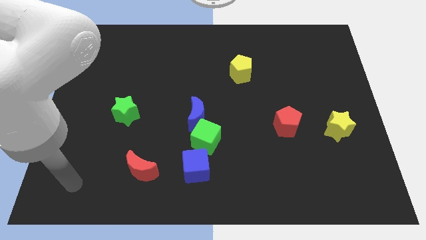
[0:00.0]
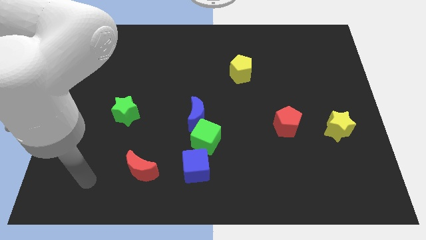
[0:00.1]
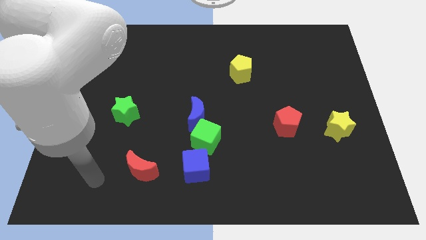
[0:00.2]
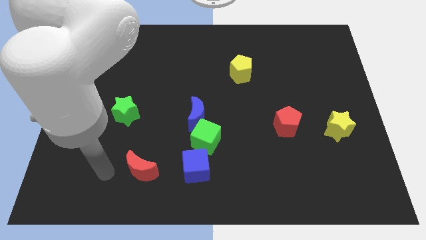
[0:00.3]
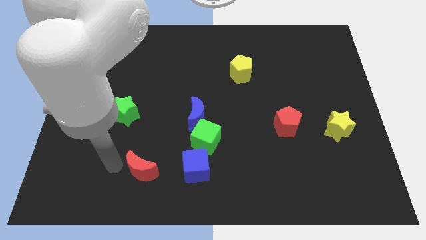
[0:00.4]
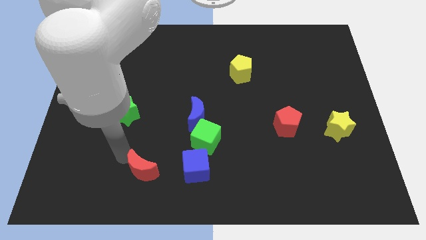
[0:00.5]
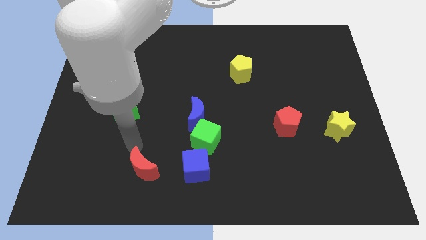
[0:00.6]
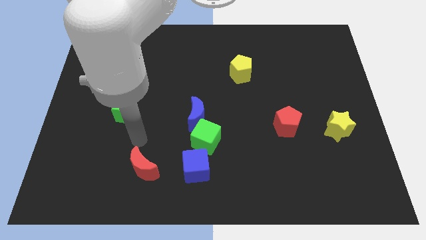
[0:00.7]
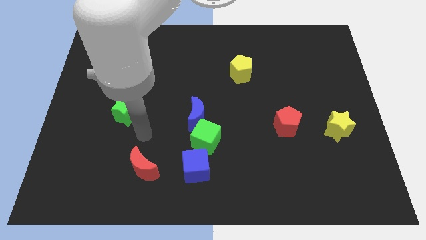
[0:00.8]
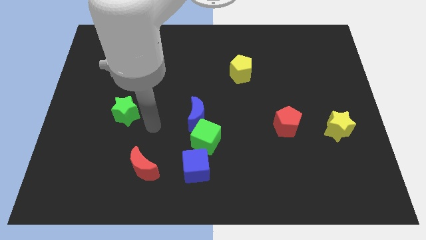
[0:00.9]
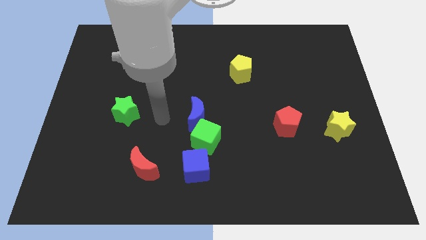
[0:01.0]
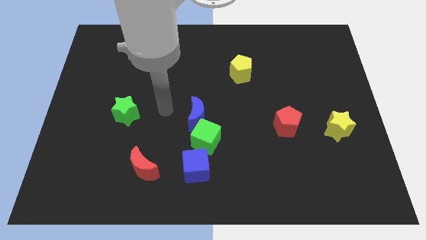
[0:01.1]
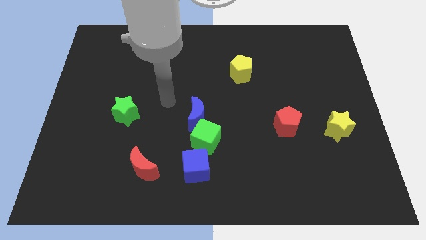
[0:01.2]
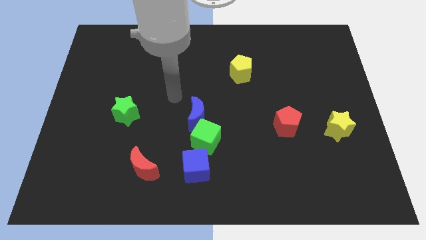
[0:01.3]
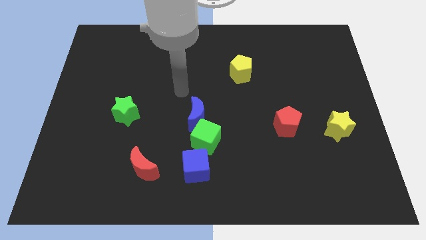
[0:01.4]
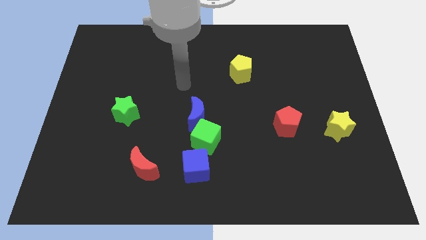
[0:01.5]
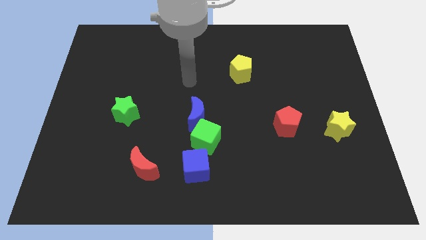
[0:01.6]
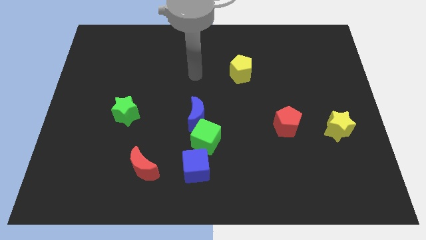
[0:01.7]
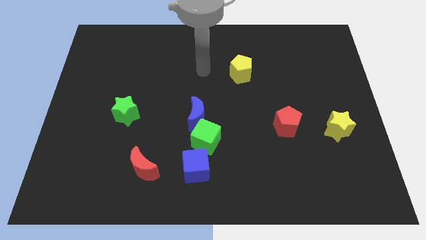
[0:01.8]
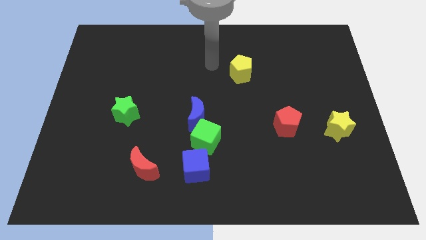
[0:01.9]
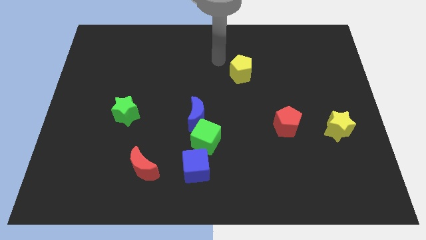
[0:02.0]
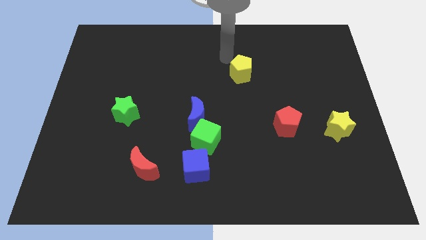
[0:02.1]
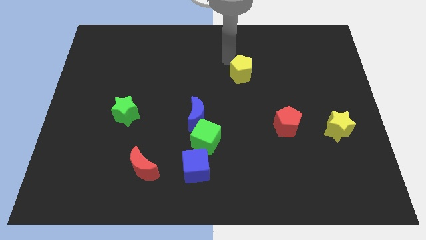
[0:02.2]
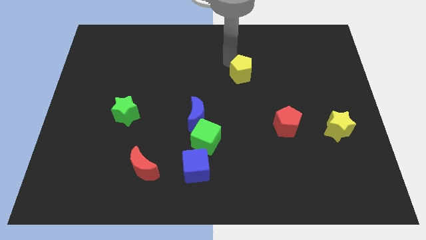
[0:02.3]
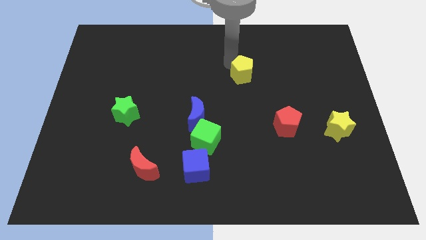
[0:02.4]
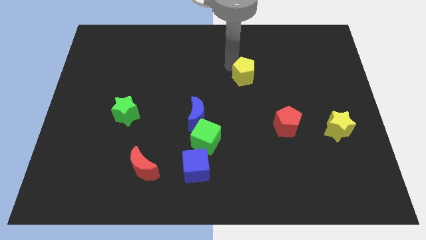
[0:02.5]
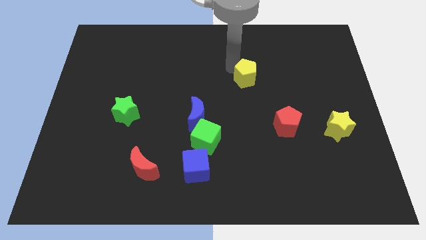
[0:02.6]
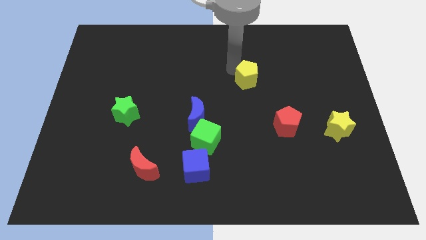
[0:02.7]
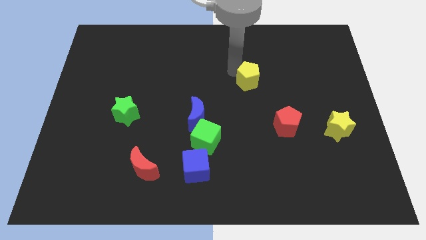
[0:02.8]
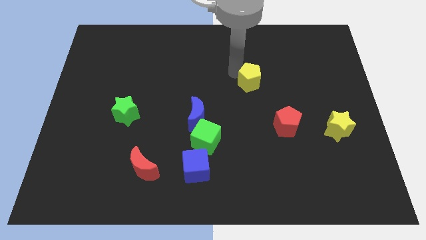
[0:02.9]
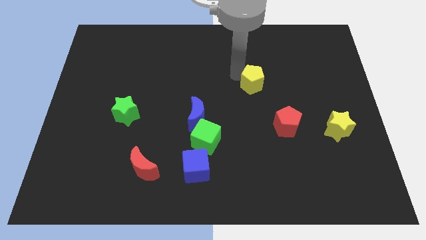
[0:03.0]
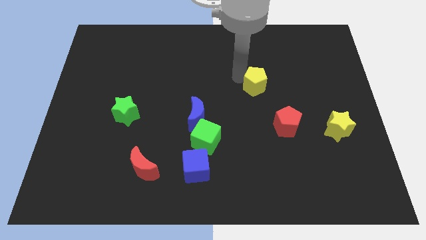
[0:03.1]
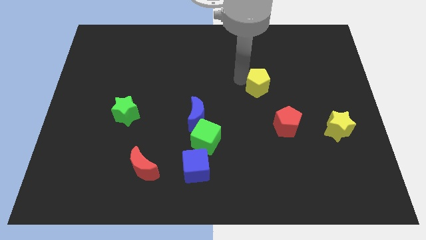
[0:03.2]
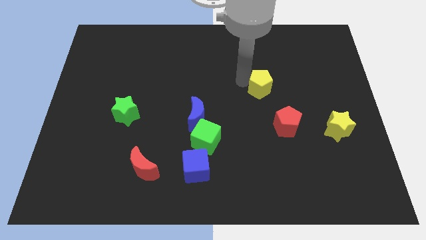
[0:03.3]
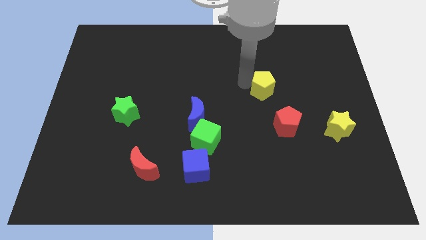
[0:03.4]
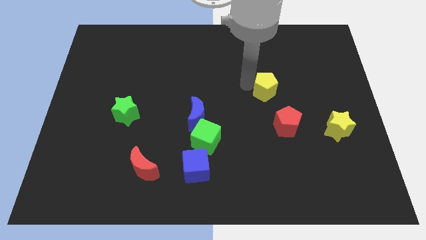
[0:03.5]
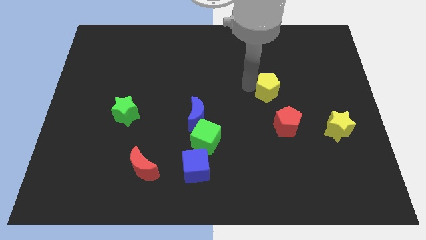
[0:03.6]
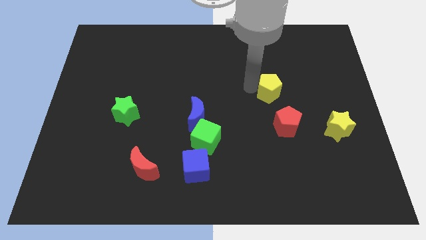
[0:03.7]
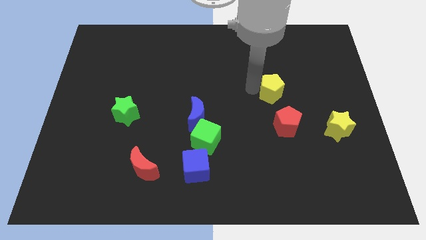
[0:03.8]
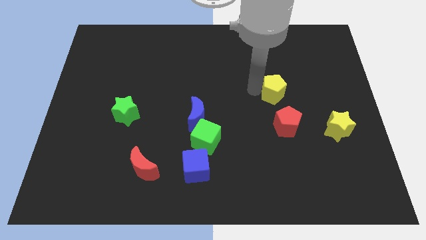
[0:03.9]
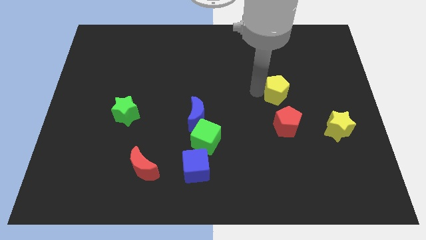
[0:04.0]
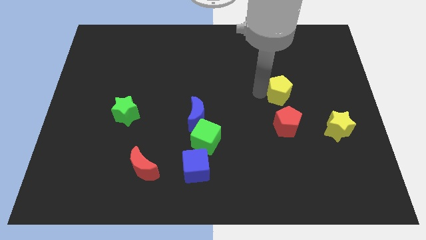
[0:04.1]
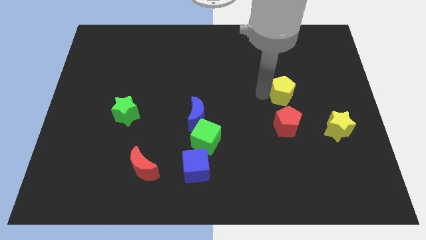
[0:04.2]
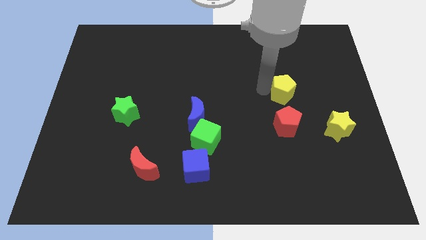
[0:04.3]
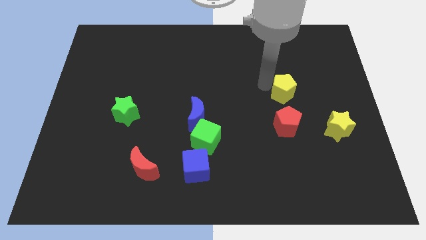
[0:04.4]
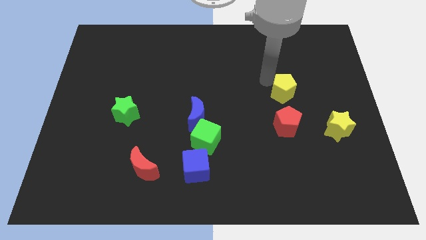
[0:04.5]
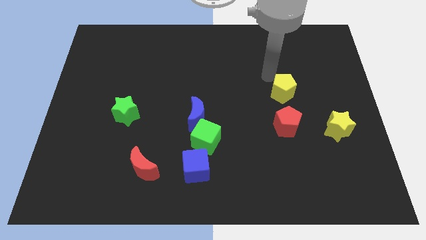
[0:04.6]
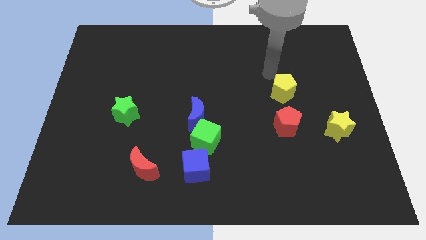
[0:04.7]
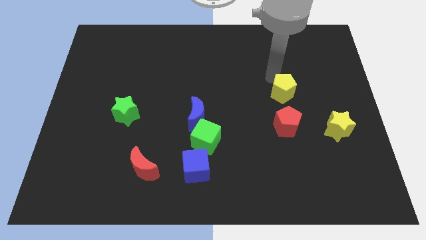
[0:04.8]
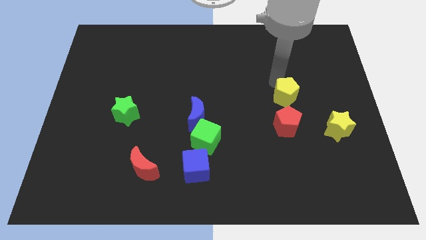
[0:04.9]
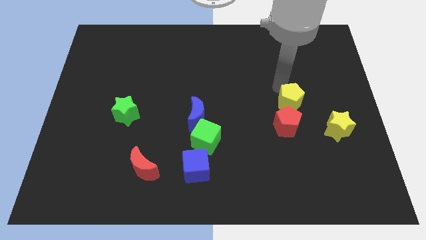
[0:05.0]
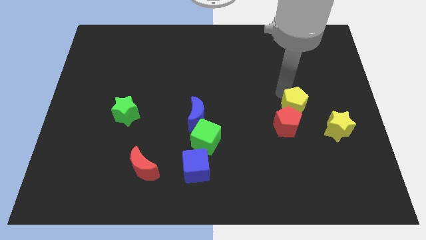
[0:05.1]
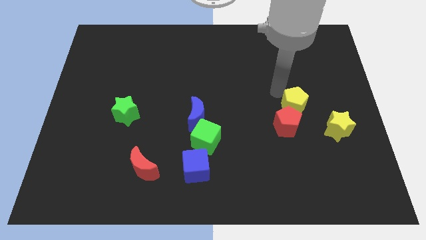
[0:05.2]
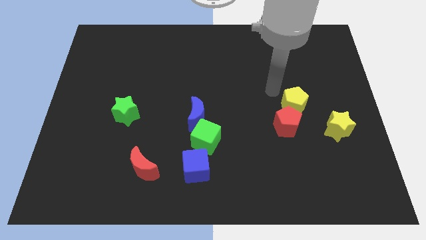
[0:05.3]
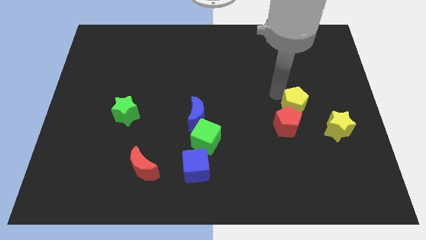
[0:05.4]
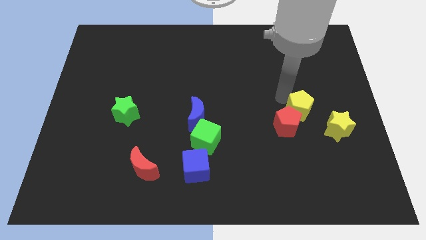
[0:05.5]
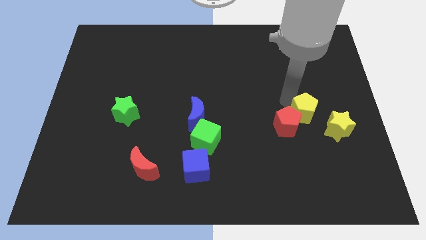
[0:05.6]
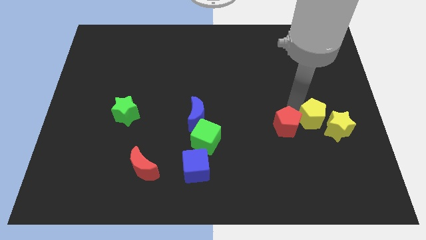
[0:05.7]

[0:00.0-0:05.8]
move the yellow pentagon towards the yellow star
